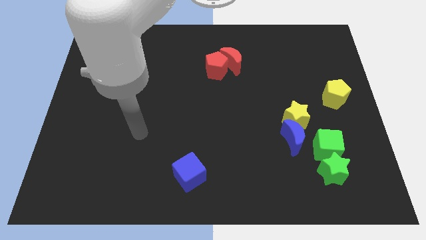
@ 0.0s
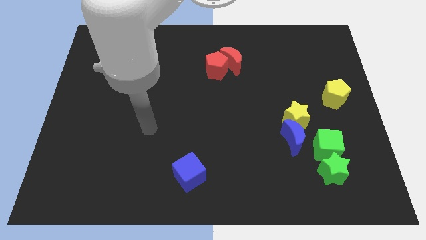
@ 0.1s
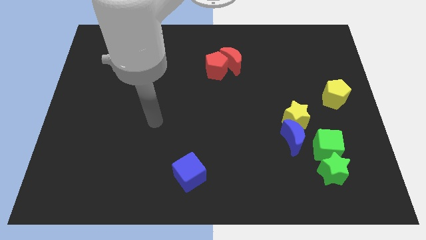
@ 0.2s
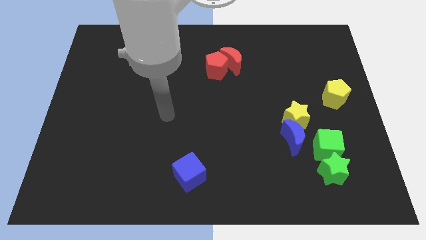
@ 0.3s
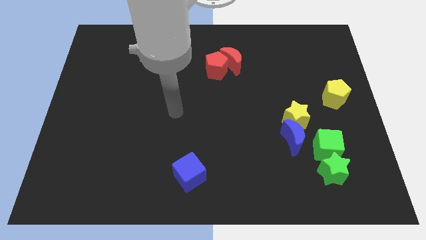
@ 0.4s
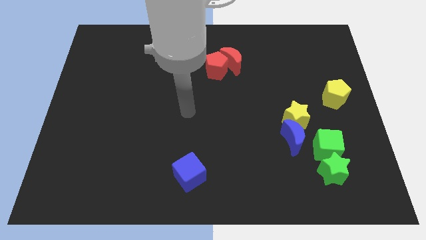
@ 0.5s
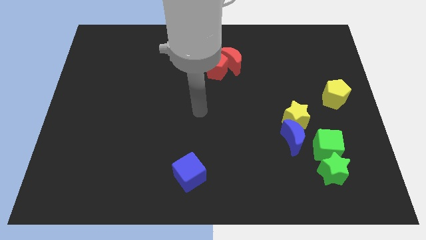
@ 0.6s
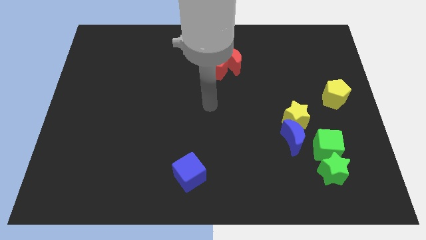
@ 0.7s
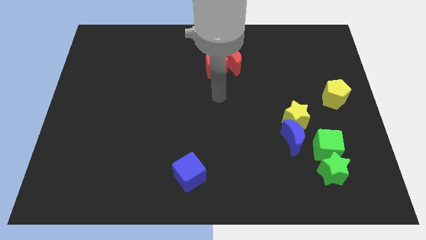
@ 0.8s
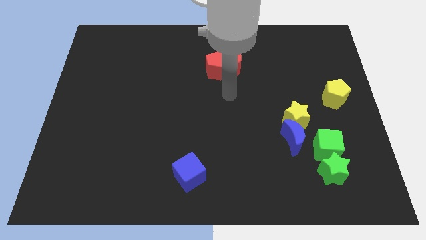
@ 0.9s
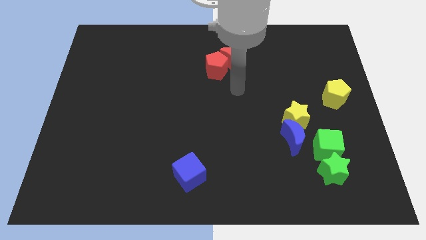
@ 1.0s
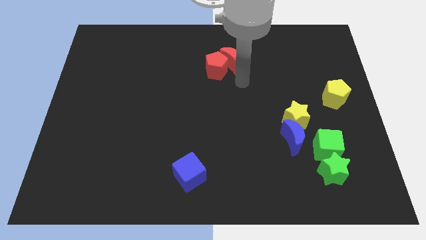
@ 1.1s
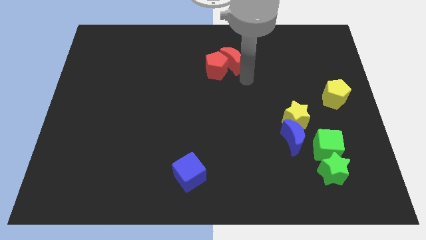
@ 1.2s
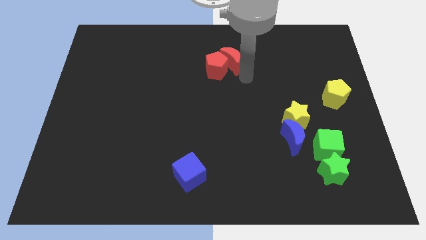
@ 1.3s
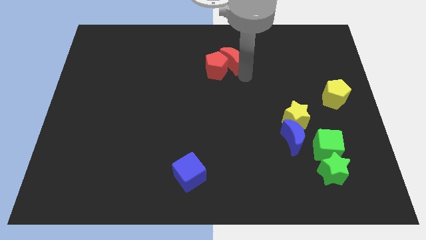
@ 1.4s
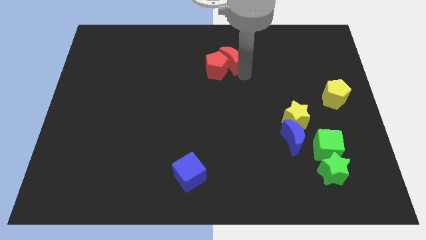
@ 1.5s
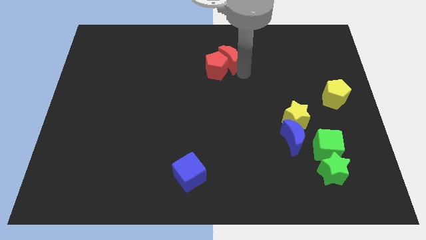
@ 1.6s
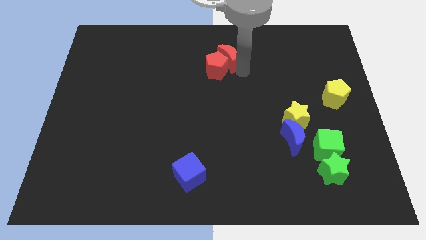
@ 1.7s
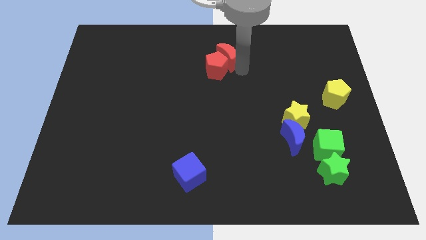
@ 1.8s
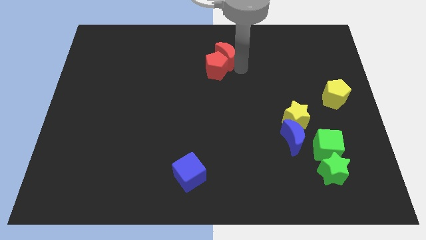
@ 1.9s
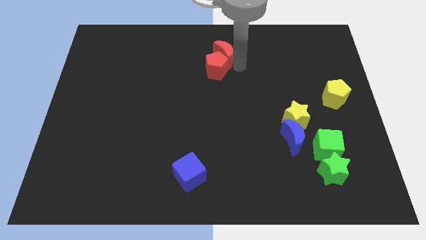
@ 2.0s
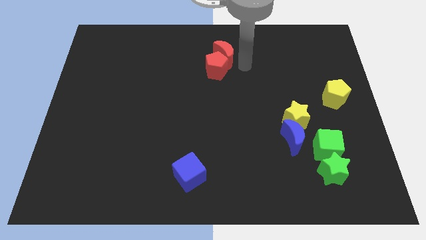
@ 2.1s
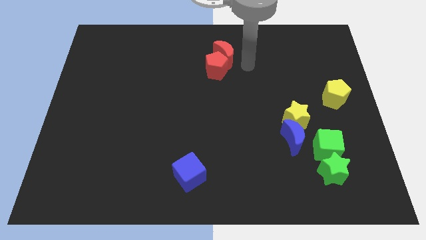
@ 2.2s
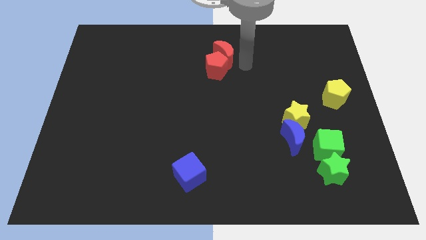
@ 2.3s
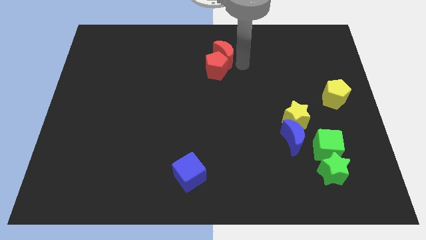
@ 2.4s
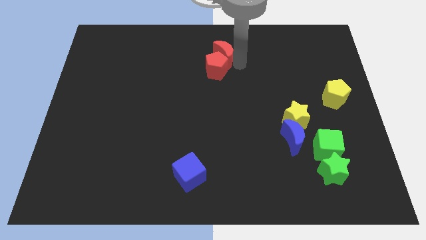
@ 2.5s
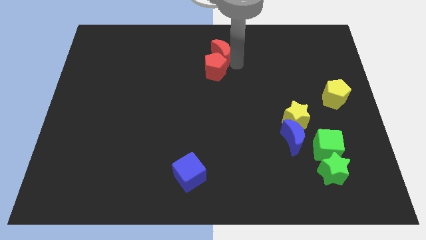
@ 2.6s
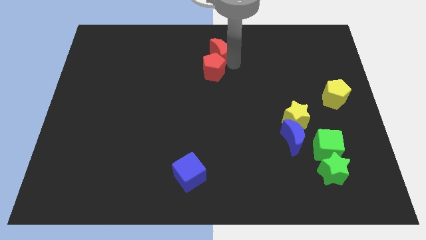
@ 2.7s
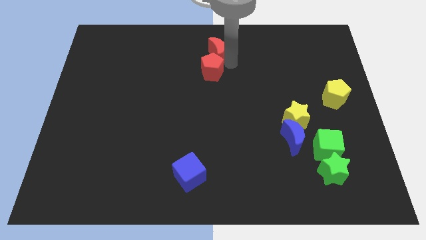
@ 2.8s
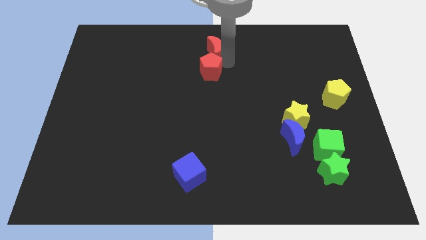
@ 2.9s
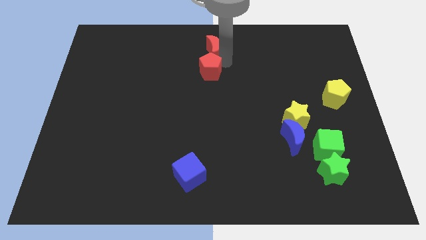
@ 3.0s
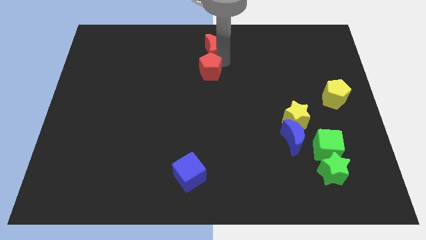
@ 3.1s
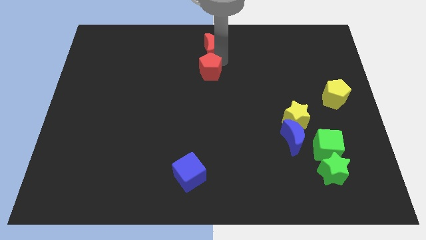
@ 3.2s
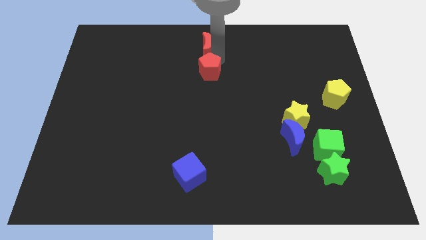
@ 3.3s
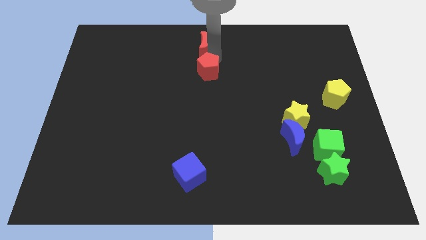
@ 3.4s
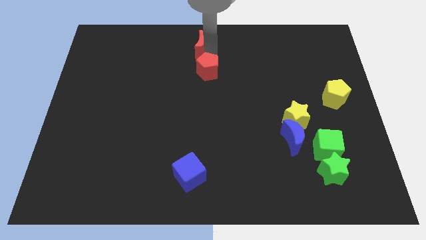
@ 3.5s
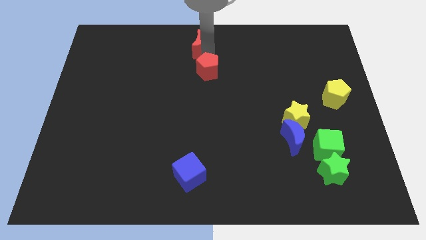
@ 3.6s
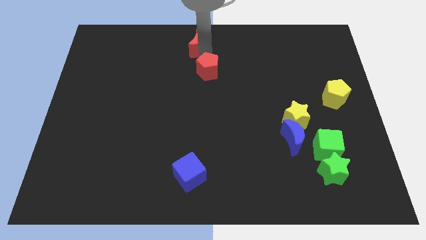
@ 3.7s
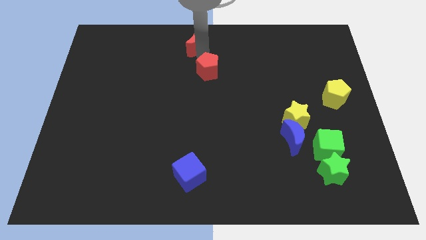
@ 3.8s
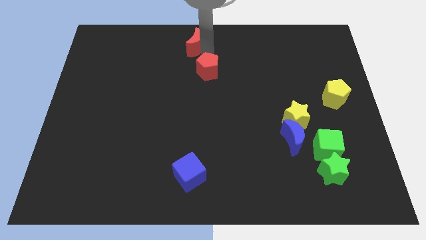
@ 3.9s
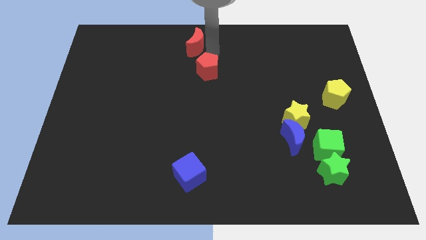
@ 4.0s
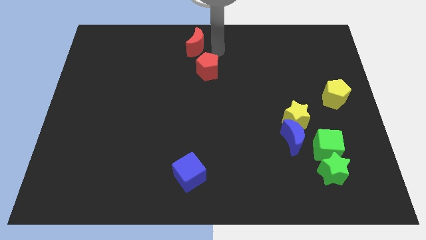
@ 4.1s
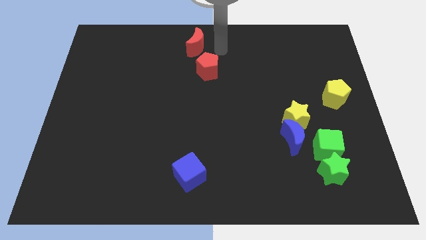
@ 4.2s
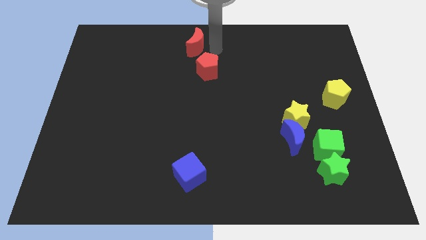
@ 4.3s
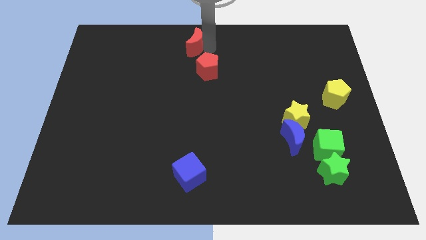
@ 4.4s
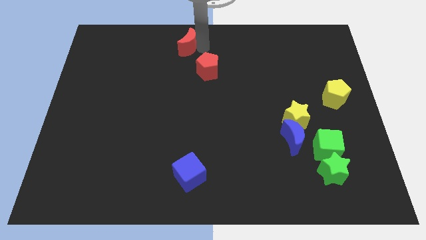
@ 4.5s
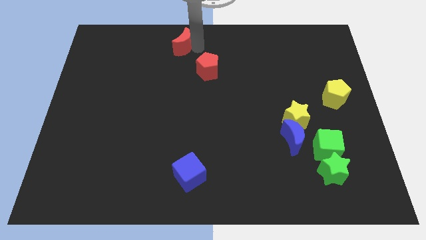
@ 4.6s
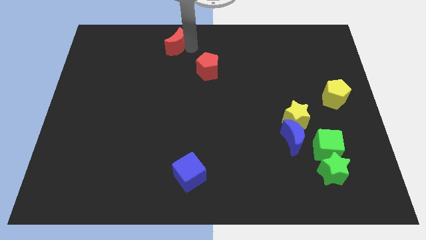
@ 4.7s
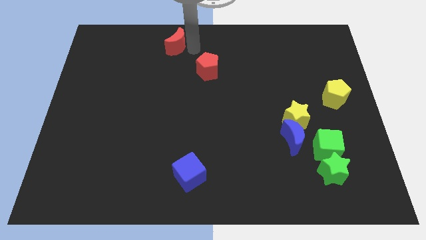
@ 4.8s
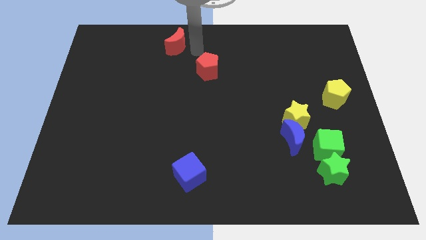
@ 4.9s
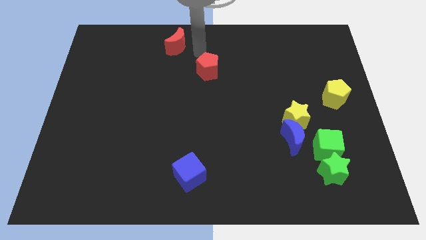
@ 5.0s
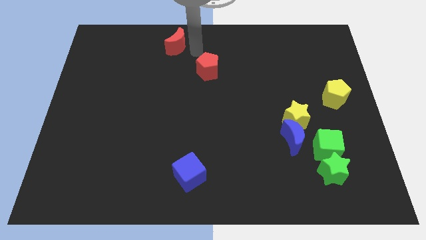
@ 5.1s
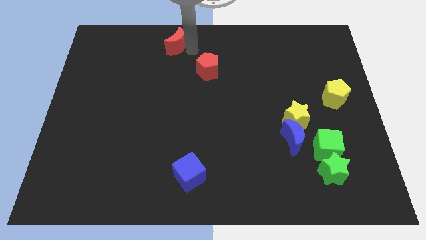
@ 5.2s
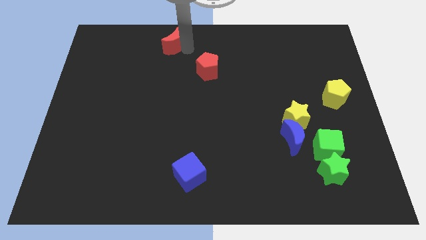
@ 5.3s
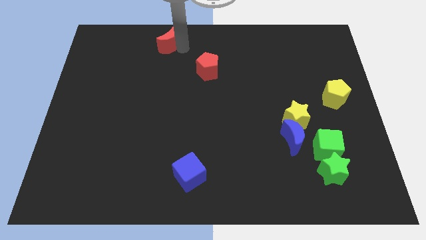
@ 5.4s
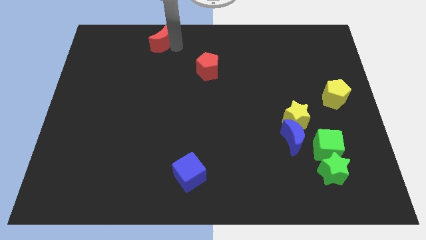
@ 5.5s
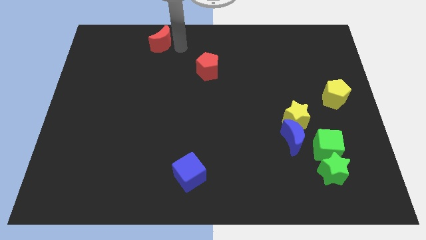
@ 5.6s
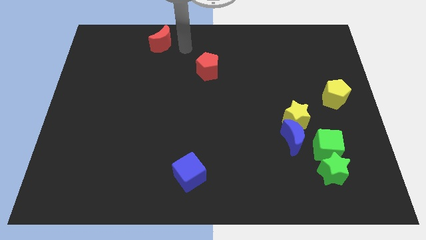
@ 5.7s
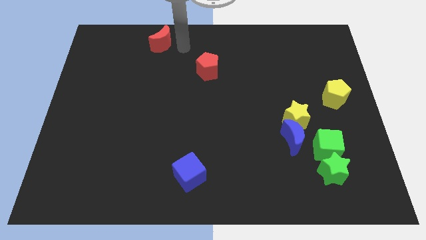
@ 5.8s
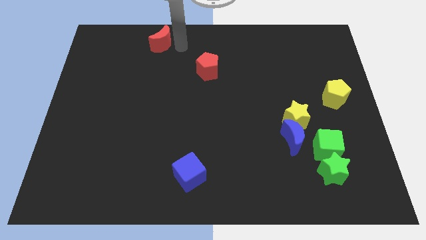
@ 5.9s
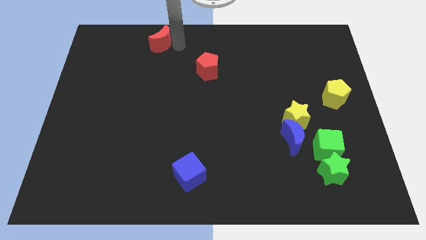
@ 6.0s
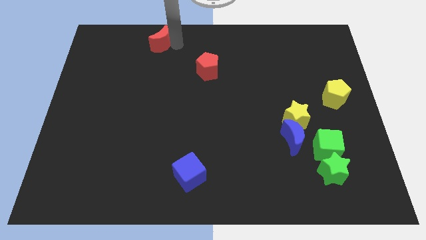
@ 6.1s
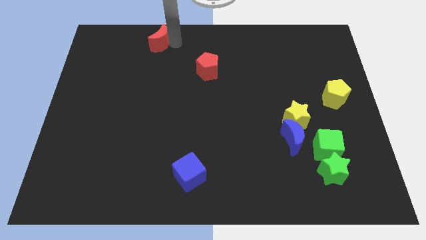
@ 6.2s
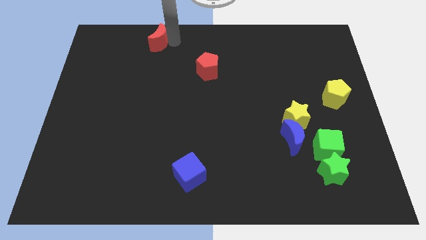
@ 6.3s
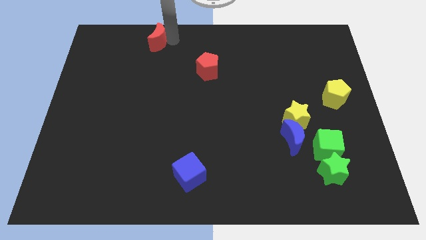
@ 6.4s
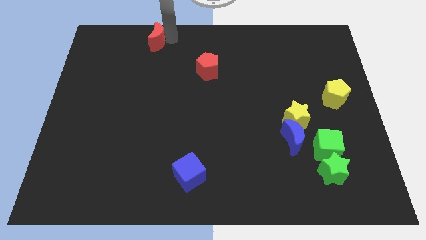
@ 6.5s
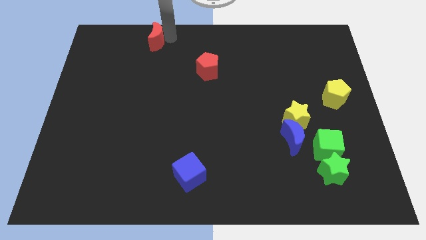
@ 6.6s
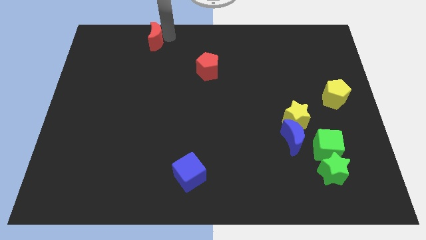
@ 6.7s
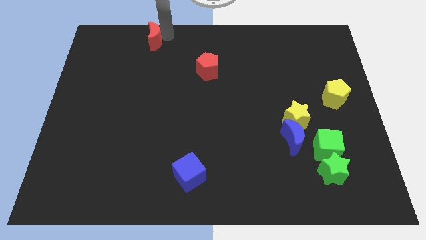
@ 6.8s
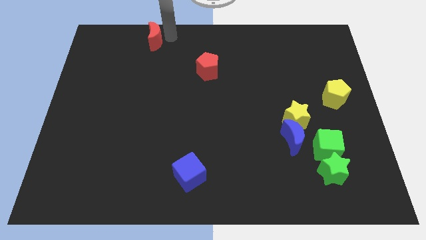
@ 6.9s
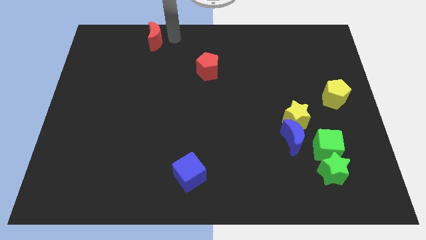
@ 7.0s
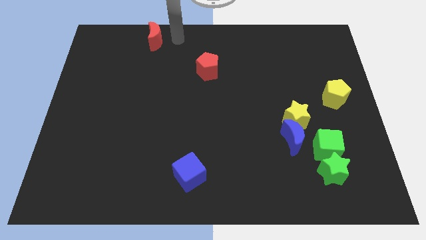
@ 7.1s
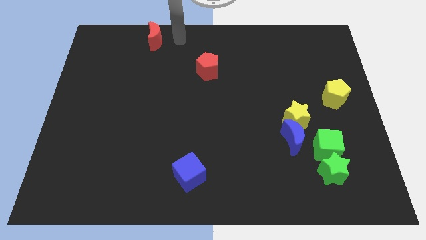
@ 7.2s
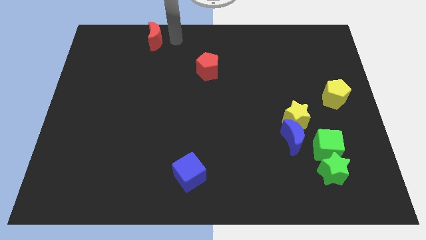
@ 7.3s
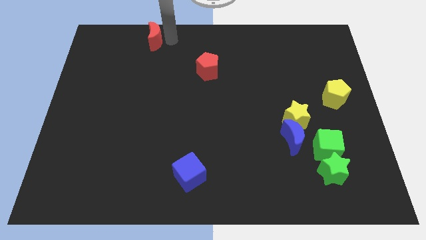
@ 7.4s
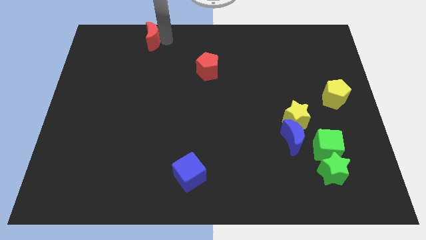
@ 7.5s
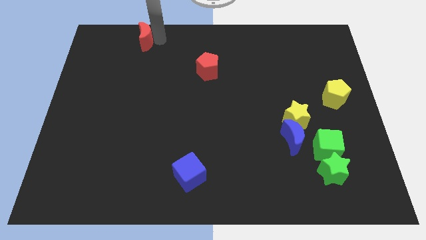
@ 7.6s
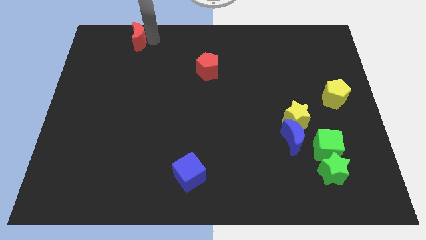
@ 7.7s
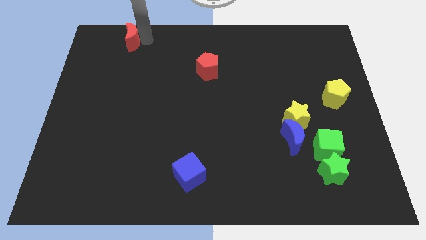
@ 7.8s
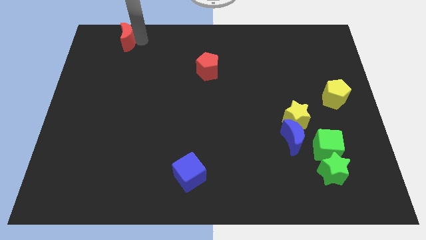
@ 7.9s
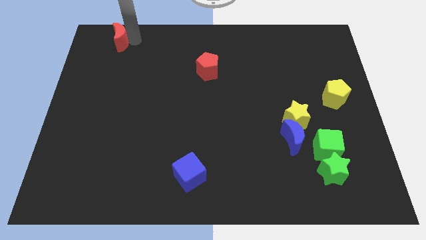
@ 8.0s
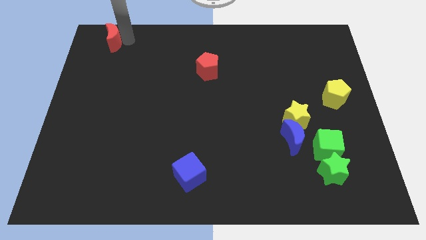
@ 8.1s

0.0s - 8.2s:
slide the red moon to the top left

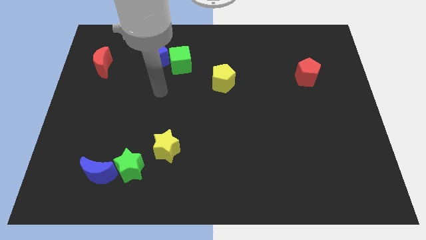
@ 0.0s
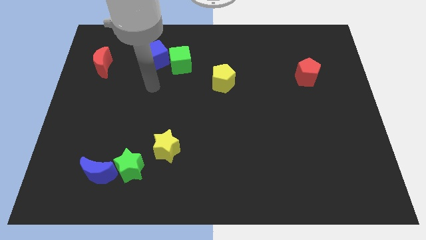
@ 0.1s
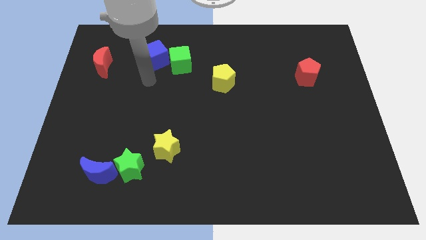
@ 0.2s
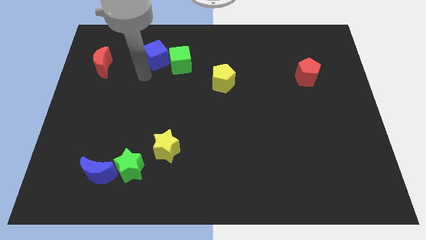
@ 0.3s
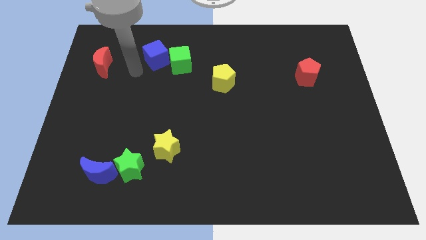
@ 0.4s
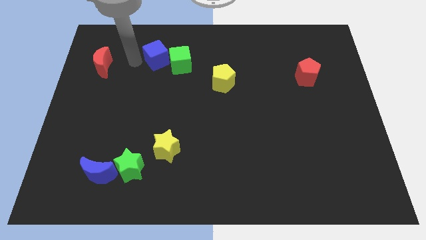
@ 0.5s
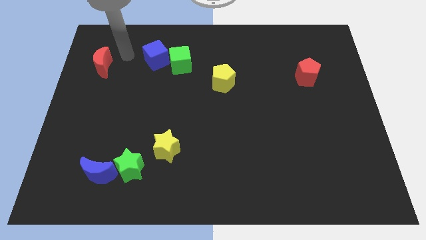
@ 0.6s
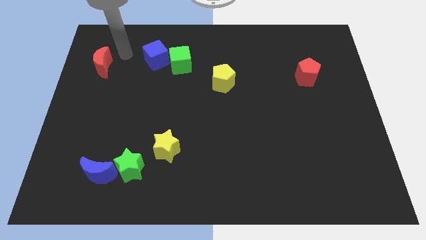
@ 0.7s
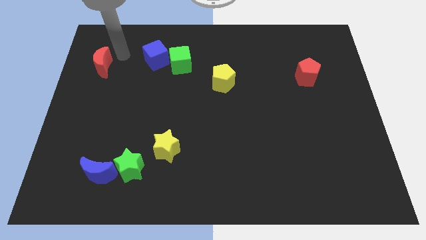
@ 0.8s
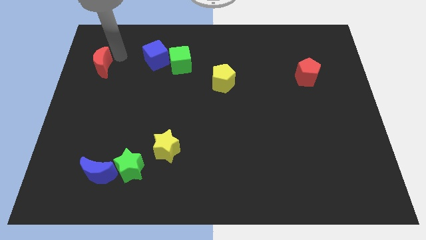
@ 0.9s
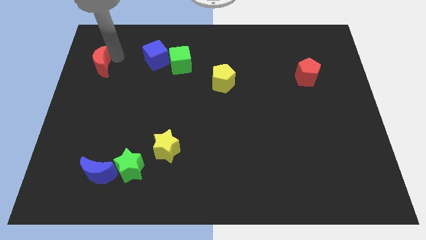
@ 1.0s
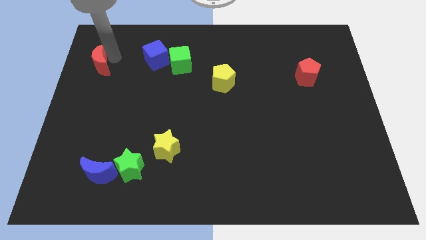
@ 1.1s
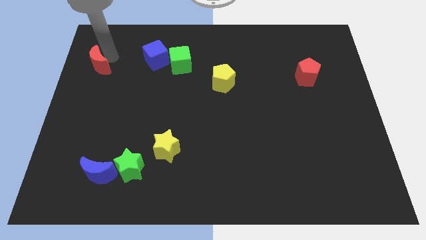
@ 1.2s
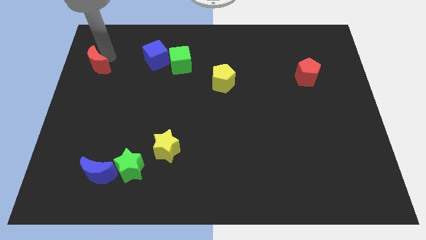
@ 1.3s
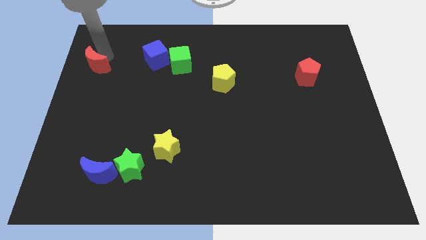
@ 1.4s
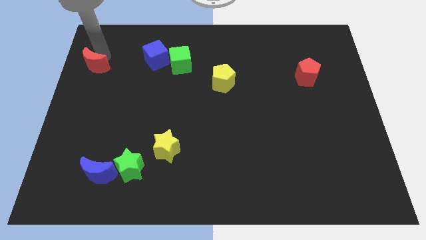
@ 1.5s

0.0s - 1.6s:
push the red moon to the center left
